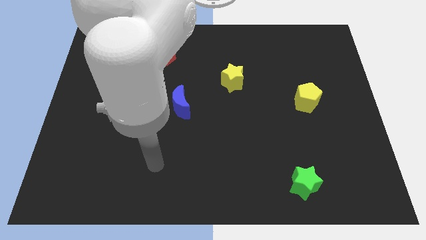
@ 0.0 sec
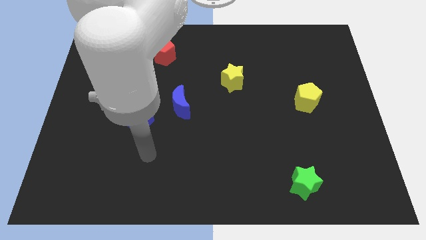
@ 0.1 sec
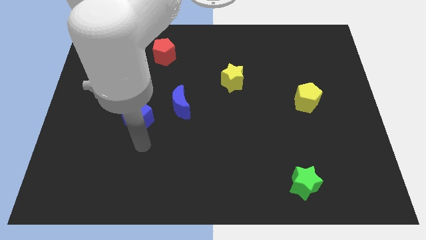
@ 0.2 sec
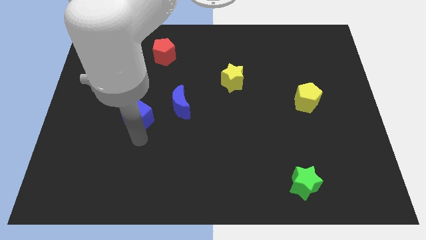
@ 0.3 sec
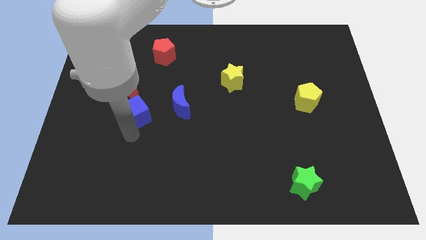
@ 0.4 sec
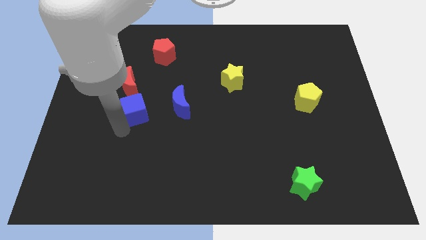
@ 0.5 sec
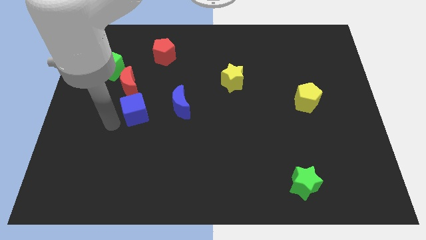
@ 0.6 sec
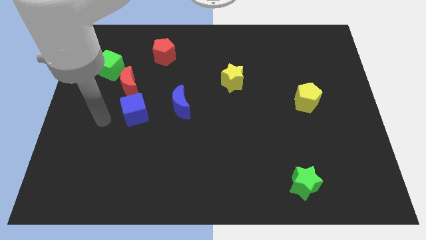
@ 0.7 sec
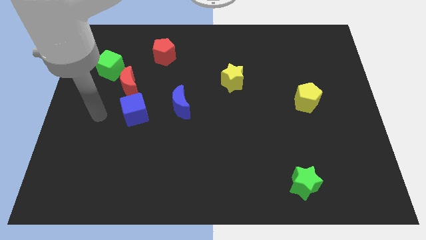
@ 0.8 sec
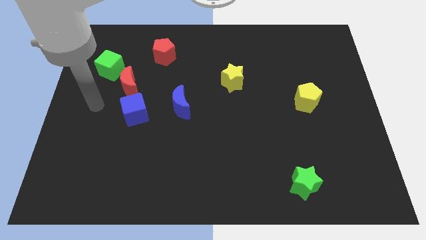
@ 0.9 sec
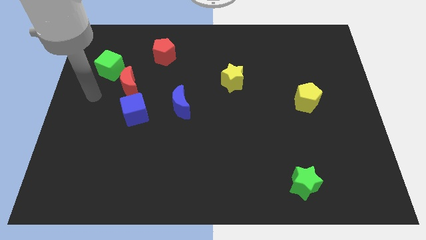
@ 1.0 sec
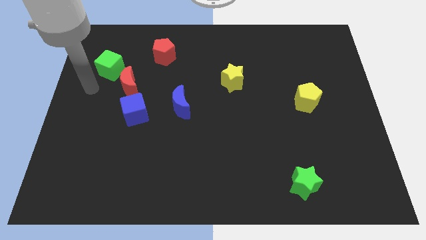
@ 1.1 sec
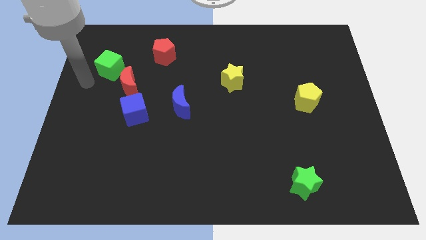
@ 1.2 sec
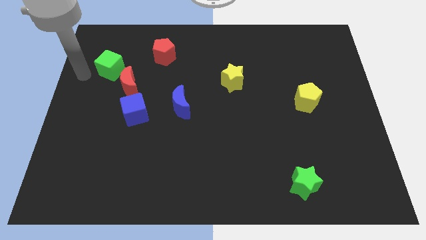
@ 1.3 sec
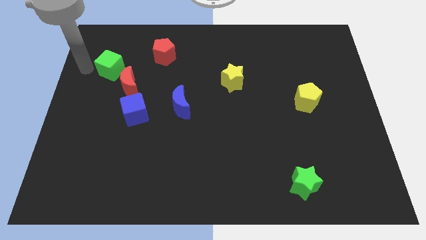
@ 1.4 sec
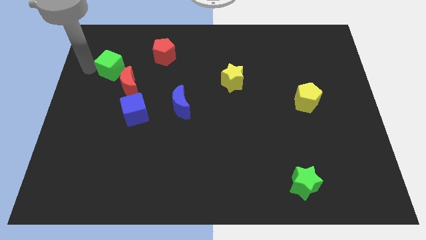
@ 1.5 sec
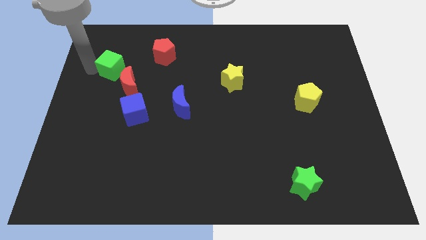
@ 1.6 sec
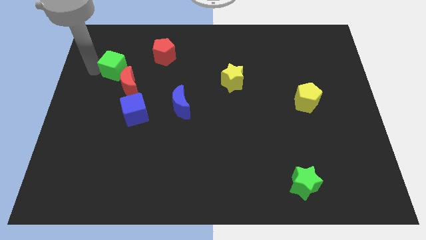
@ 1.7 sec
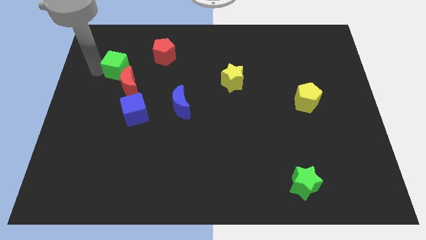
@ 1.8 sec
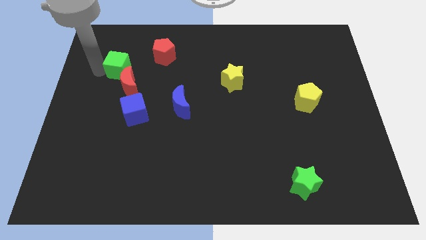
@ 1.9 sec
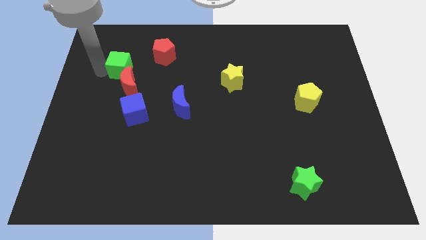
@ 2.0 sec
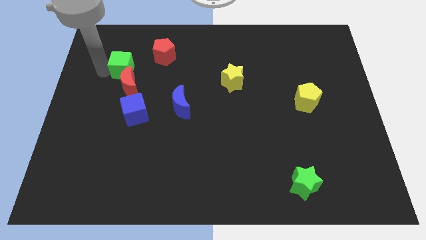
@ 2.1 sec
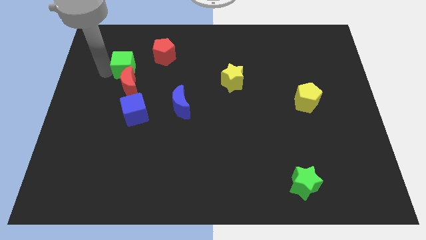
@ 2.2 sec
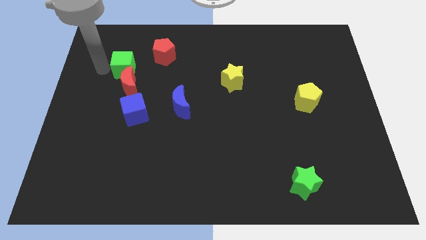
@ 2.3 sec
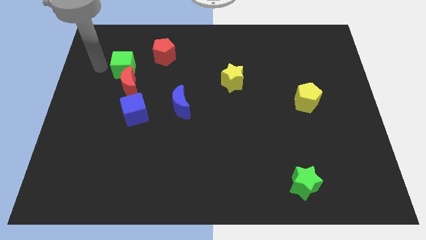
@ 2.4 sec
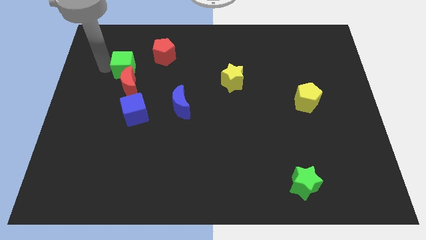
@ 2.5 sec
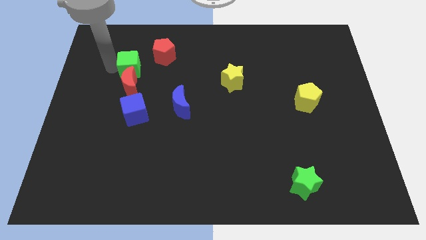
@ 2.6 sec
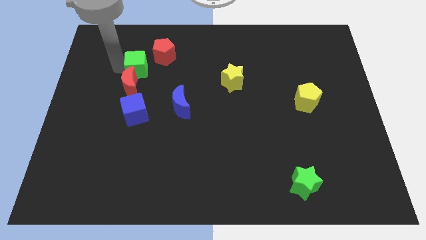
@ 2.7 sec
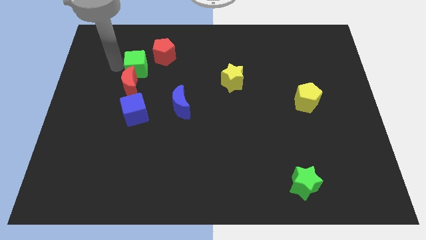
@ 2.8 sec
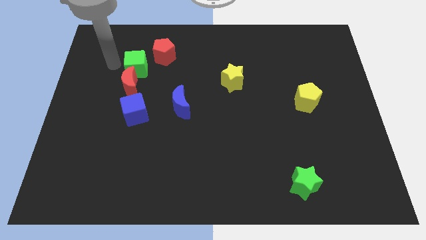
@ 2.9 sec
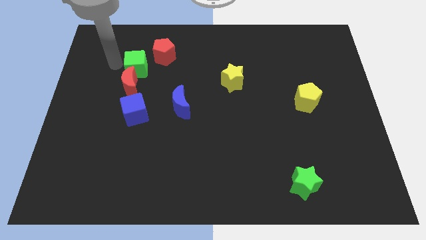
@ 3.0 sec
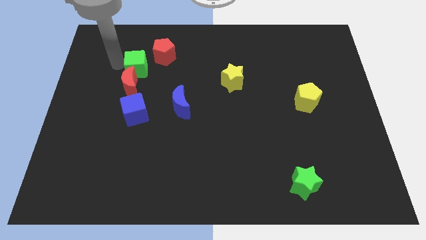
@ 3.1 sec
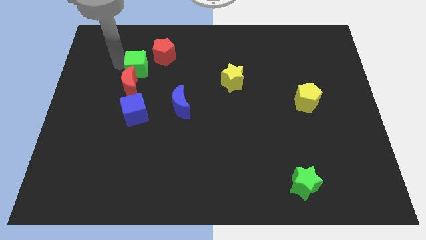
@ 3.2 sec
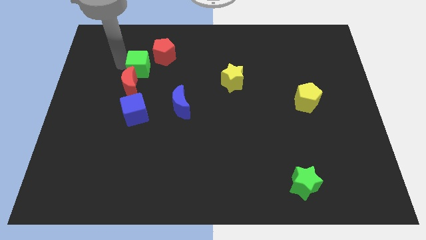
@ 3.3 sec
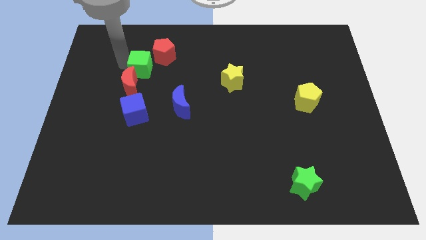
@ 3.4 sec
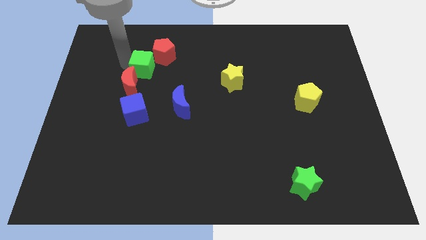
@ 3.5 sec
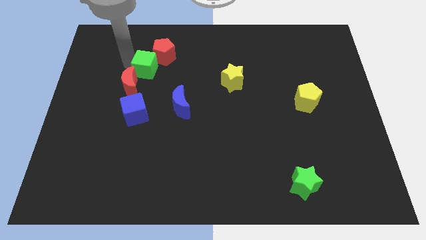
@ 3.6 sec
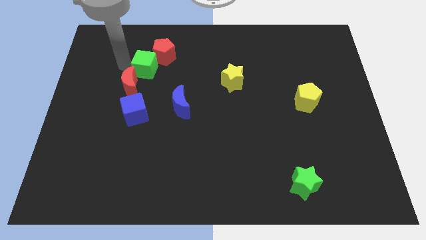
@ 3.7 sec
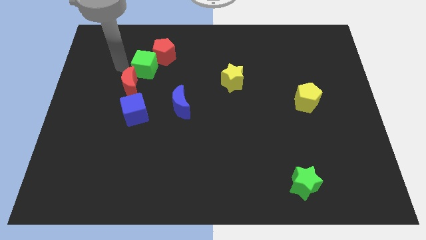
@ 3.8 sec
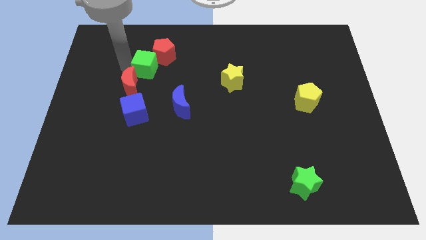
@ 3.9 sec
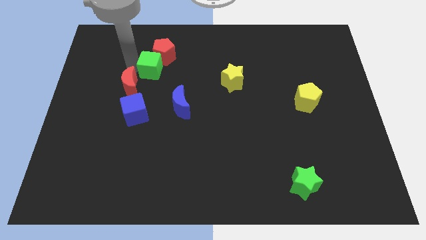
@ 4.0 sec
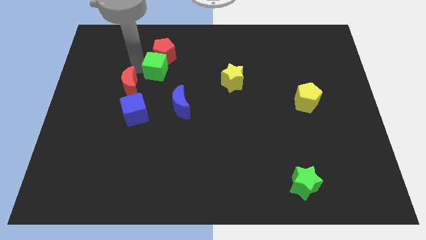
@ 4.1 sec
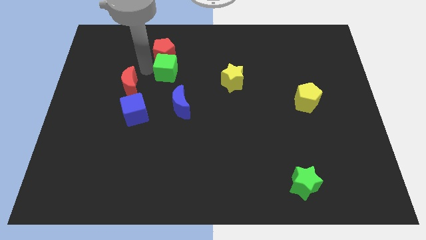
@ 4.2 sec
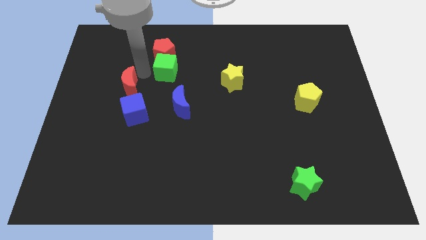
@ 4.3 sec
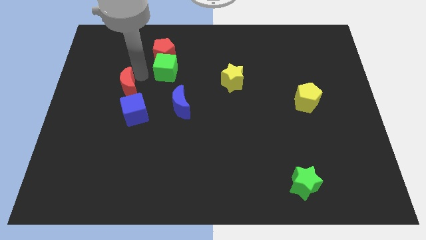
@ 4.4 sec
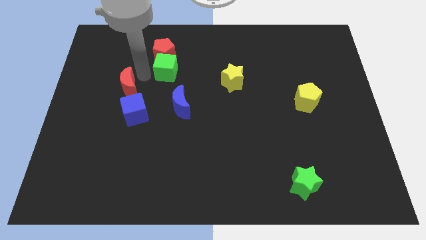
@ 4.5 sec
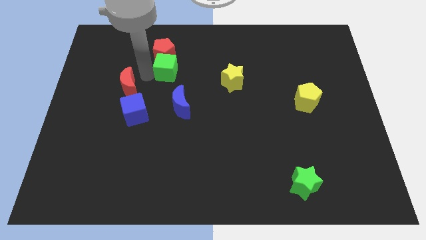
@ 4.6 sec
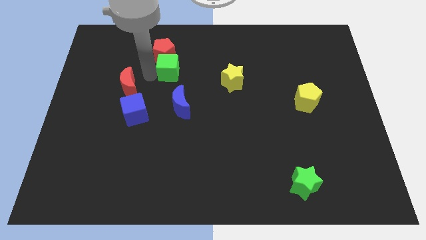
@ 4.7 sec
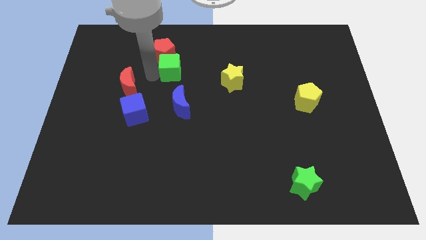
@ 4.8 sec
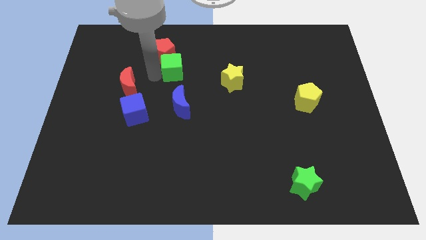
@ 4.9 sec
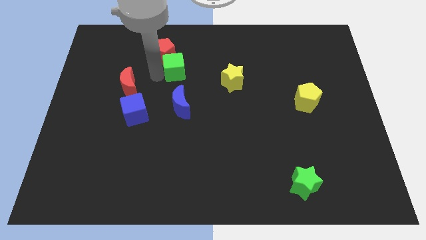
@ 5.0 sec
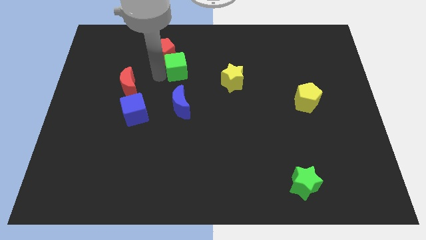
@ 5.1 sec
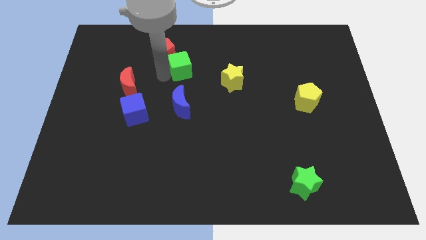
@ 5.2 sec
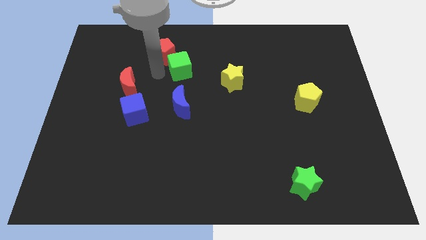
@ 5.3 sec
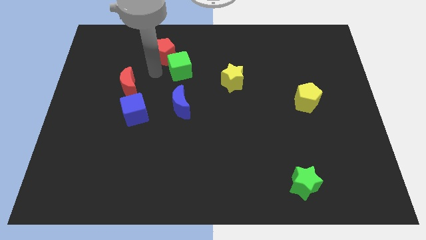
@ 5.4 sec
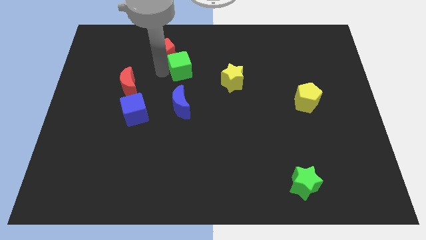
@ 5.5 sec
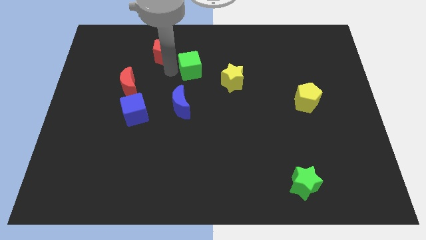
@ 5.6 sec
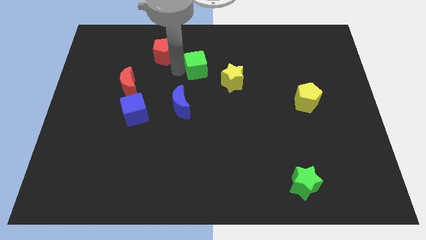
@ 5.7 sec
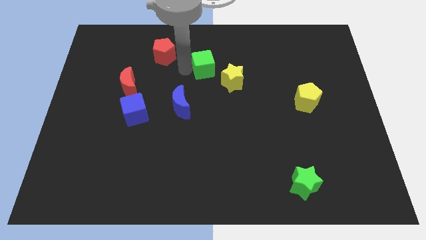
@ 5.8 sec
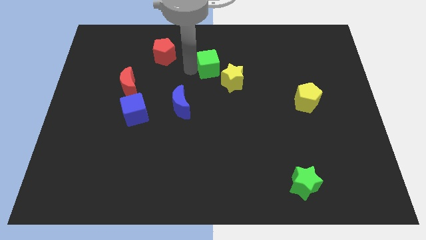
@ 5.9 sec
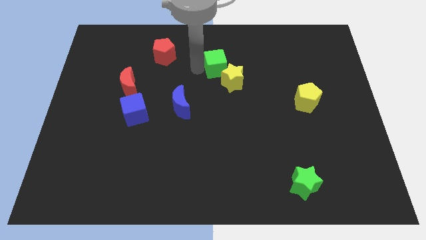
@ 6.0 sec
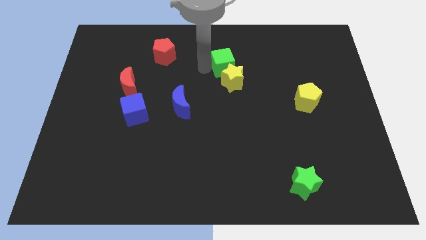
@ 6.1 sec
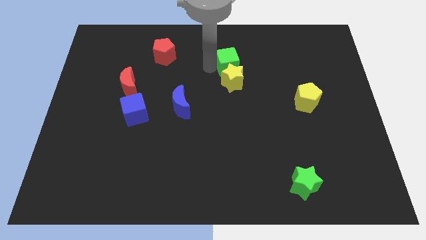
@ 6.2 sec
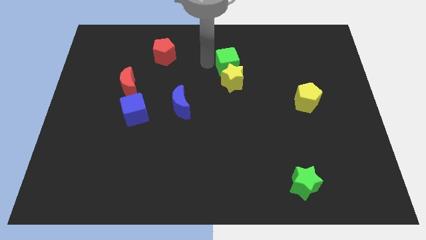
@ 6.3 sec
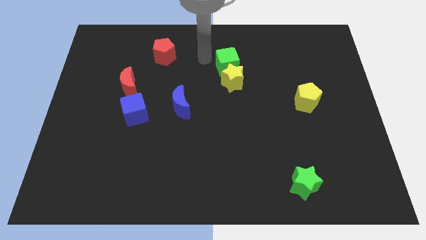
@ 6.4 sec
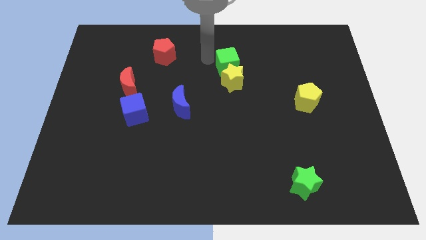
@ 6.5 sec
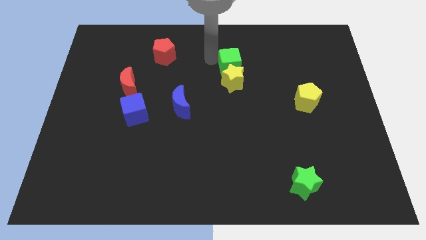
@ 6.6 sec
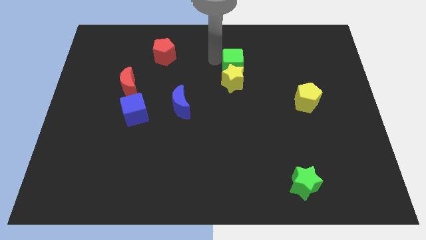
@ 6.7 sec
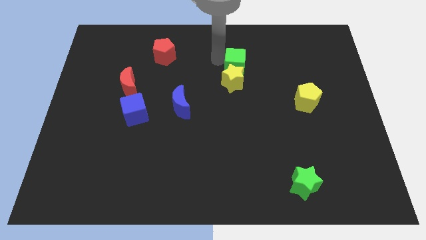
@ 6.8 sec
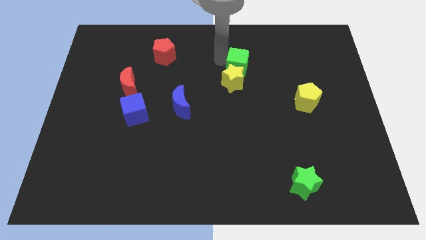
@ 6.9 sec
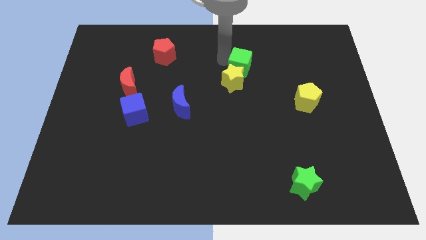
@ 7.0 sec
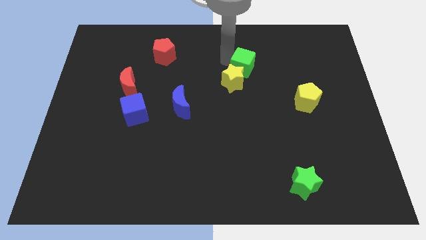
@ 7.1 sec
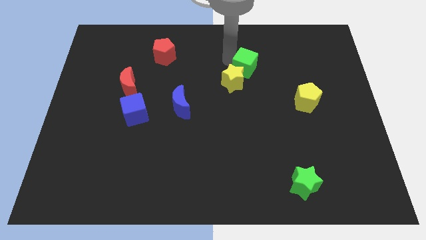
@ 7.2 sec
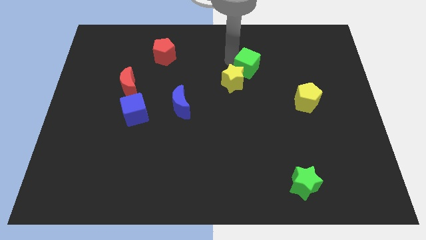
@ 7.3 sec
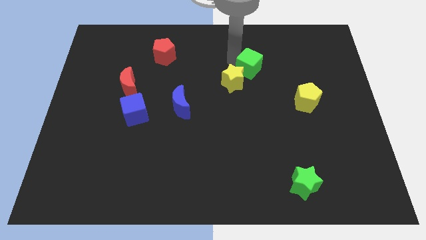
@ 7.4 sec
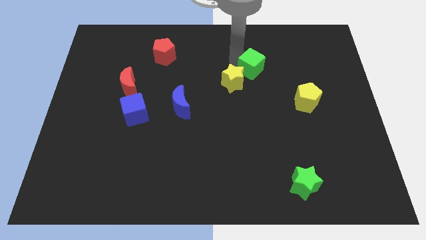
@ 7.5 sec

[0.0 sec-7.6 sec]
put the green cube to the right of the yellow star
